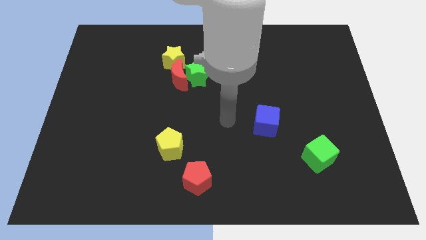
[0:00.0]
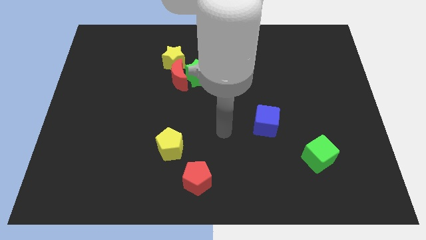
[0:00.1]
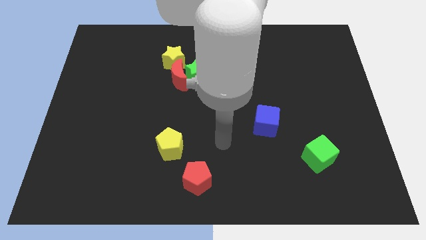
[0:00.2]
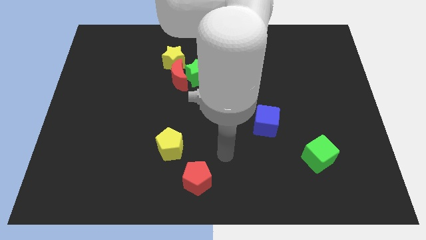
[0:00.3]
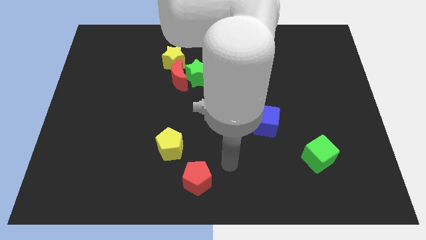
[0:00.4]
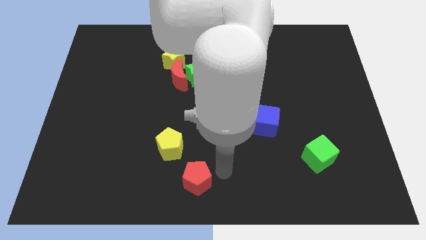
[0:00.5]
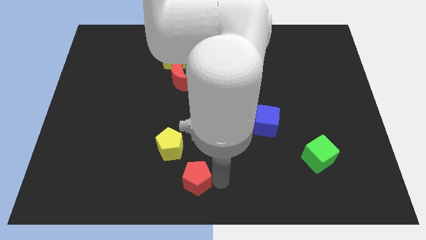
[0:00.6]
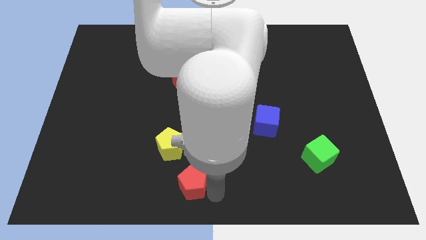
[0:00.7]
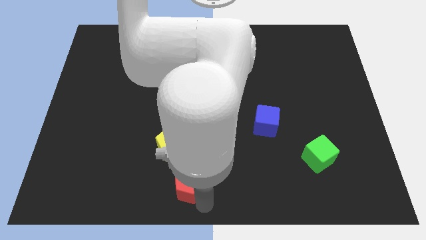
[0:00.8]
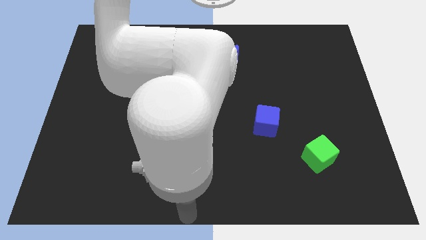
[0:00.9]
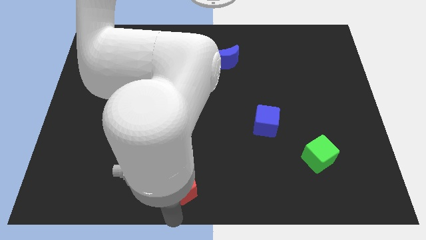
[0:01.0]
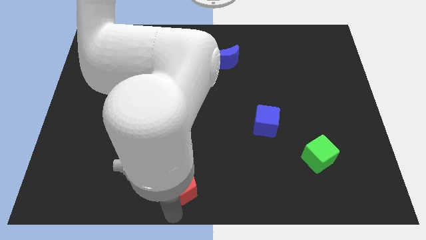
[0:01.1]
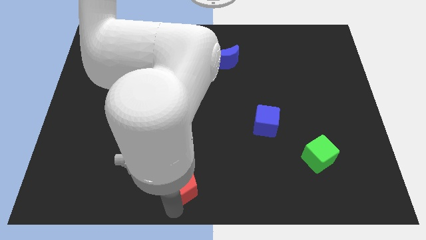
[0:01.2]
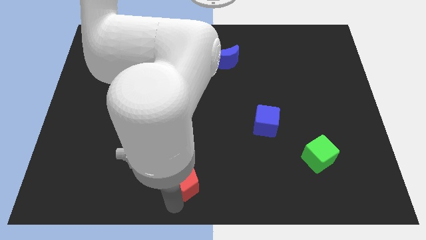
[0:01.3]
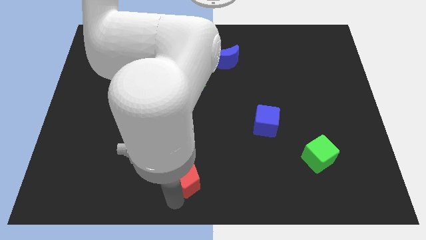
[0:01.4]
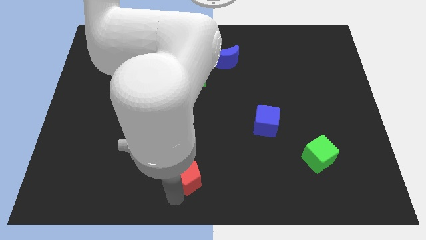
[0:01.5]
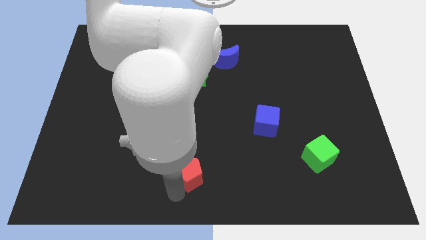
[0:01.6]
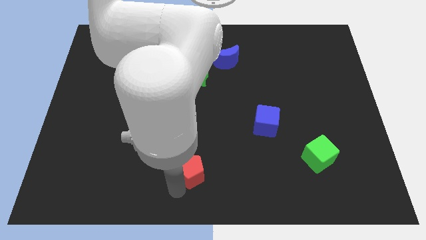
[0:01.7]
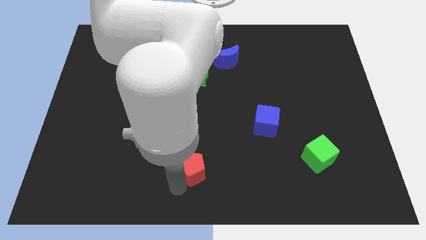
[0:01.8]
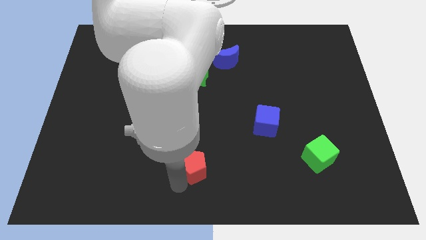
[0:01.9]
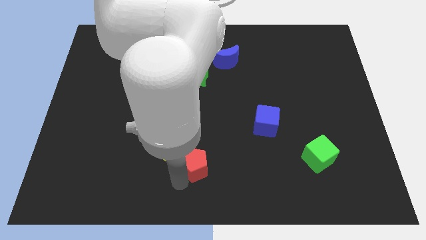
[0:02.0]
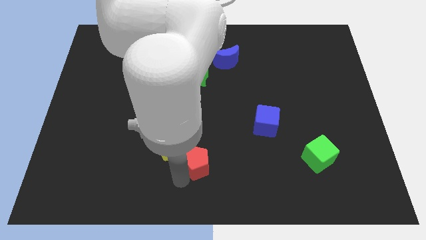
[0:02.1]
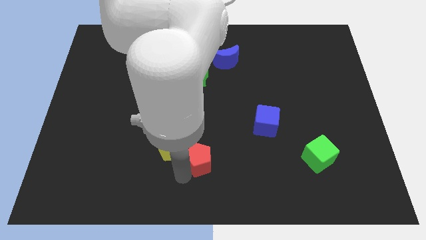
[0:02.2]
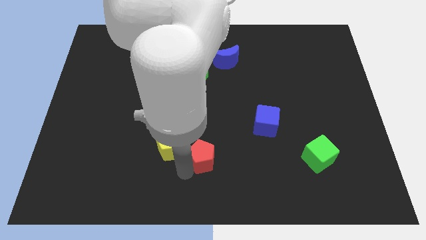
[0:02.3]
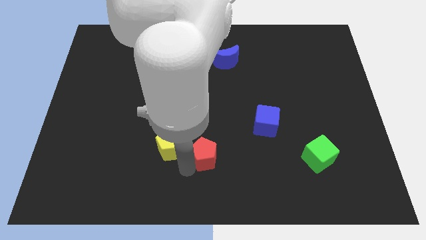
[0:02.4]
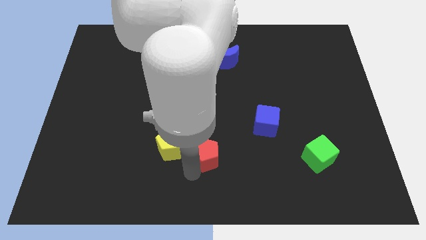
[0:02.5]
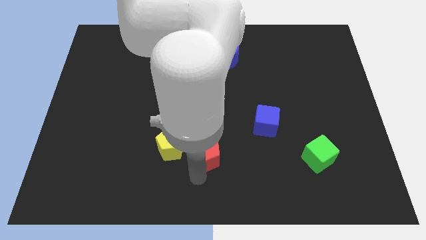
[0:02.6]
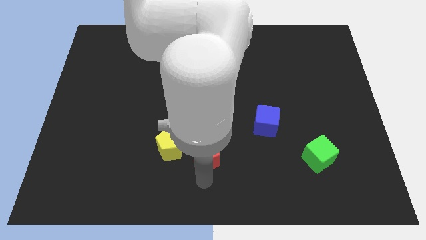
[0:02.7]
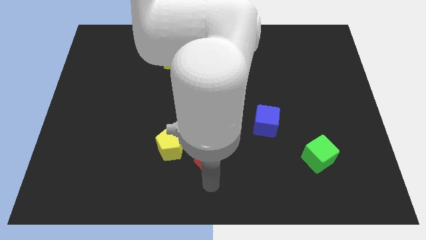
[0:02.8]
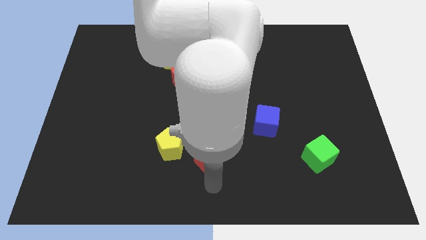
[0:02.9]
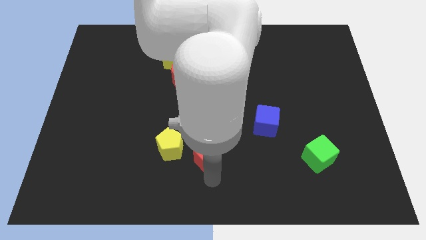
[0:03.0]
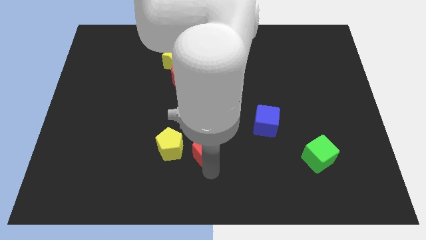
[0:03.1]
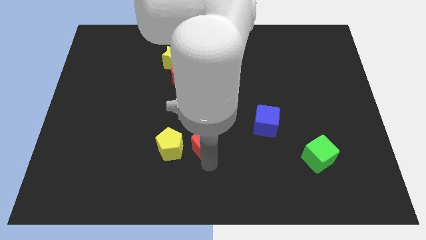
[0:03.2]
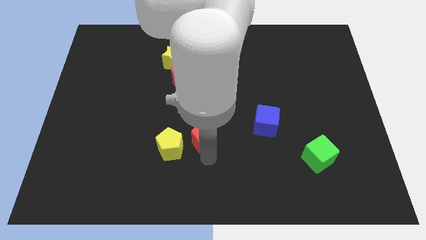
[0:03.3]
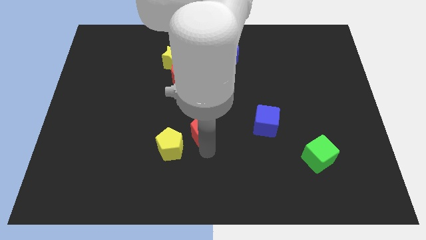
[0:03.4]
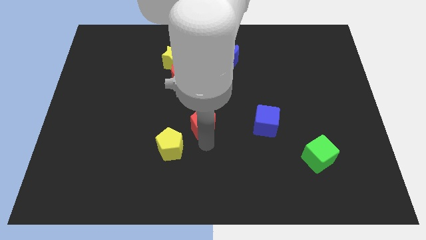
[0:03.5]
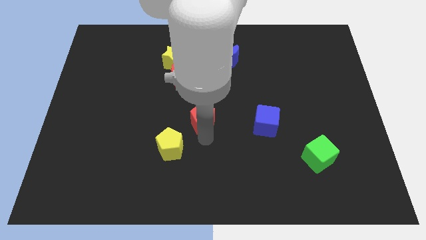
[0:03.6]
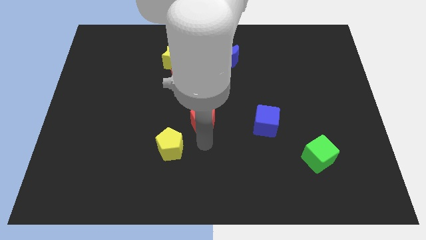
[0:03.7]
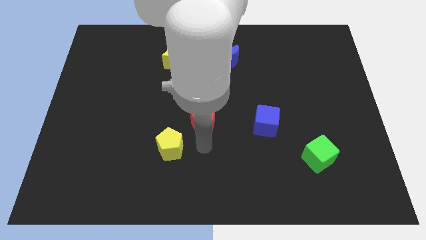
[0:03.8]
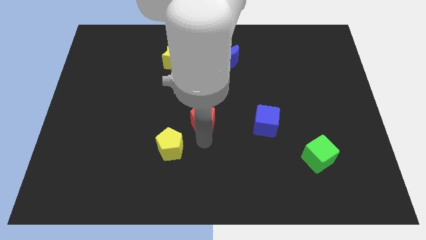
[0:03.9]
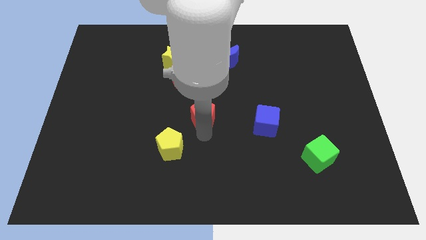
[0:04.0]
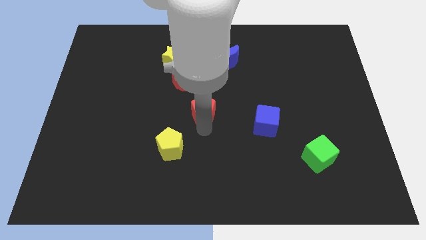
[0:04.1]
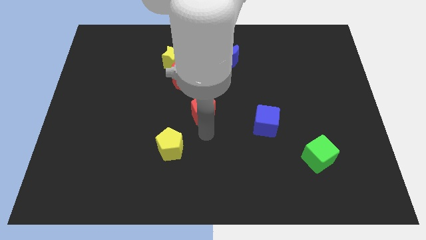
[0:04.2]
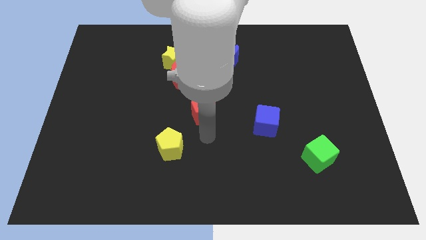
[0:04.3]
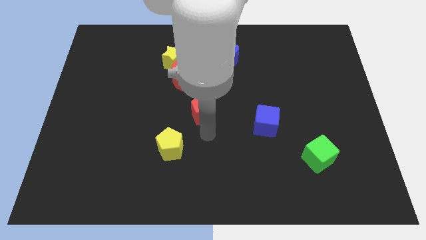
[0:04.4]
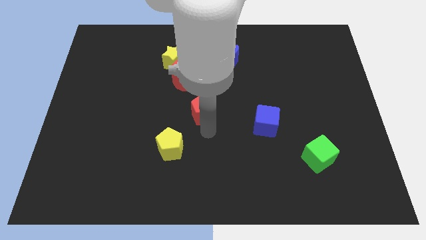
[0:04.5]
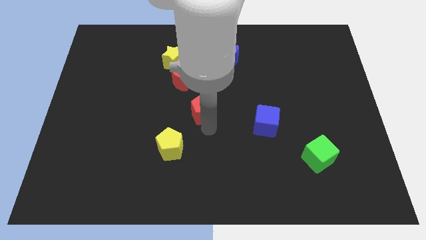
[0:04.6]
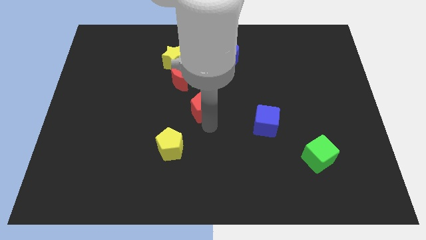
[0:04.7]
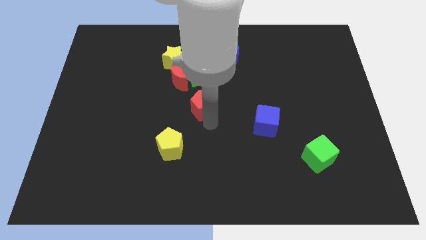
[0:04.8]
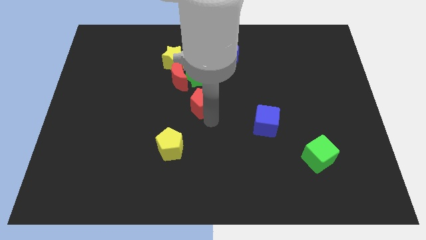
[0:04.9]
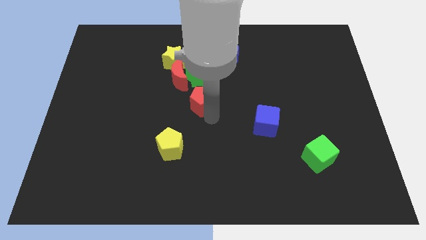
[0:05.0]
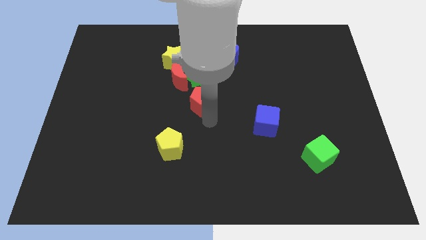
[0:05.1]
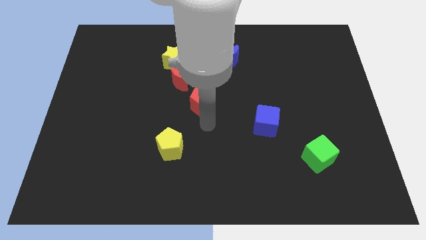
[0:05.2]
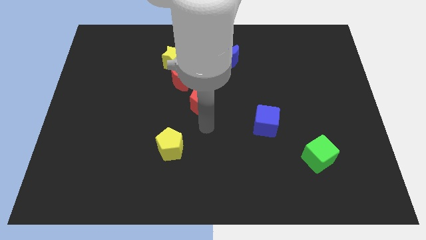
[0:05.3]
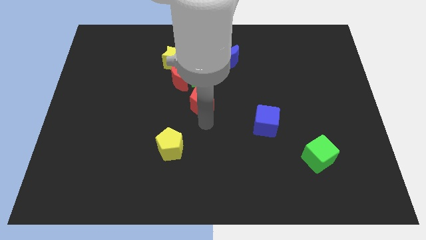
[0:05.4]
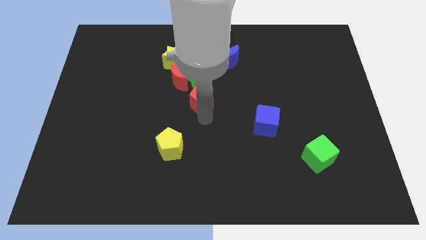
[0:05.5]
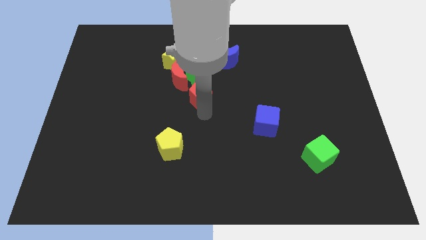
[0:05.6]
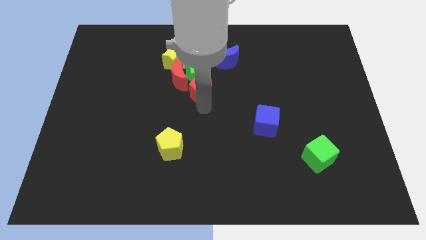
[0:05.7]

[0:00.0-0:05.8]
push the red pentagon towards the green star

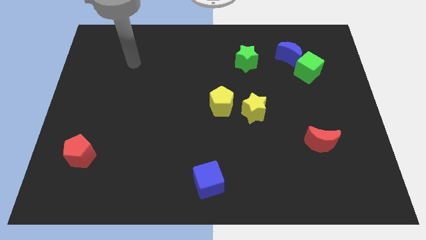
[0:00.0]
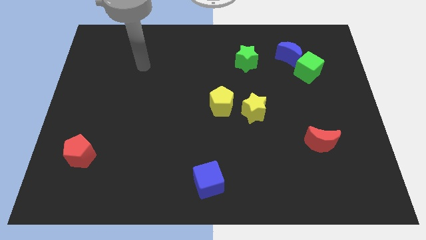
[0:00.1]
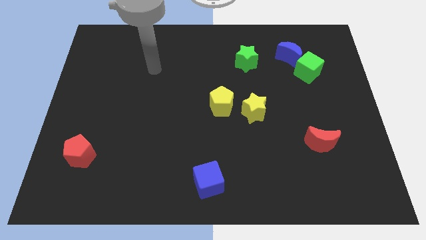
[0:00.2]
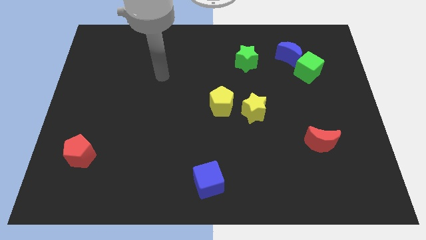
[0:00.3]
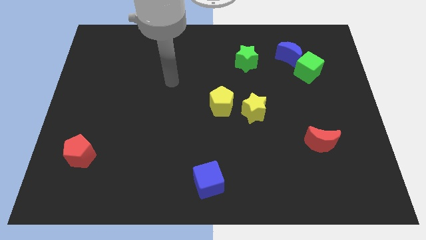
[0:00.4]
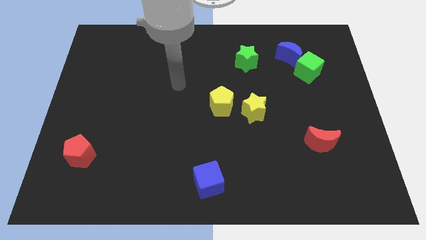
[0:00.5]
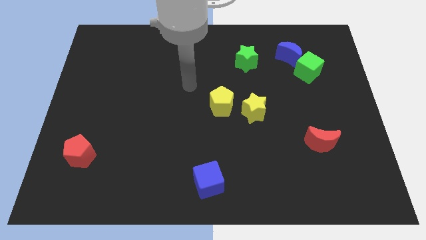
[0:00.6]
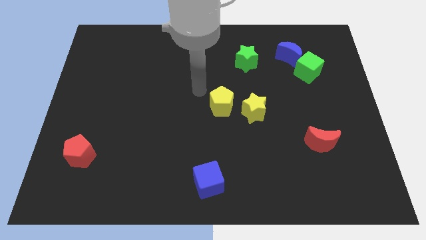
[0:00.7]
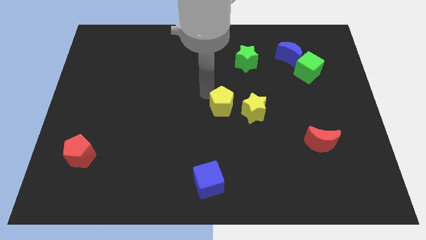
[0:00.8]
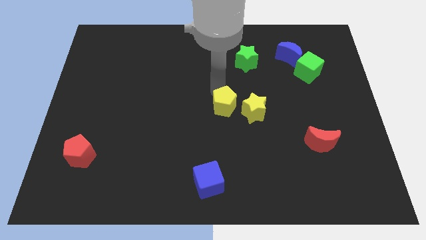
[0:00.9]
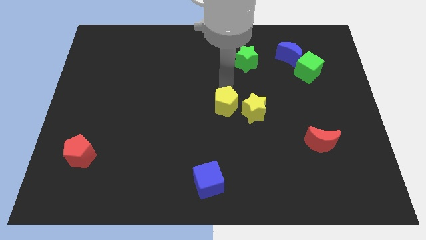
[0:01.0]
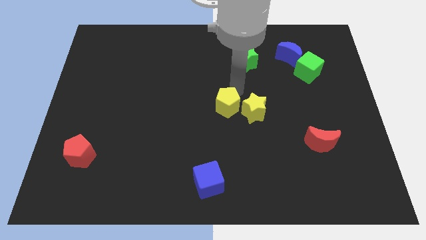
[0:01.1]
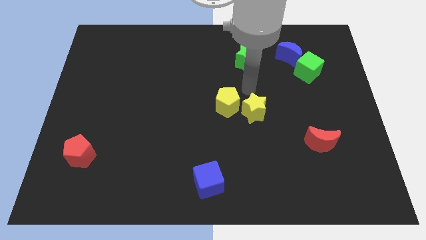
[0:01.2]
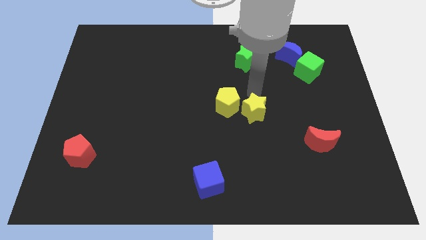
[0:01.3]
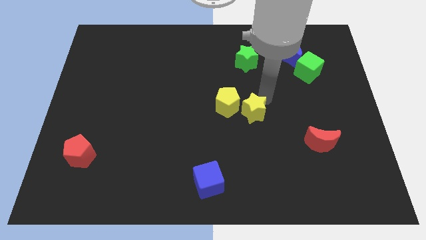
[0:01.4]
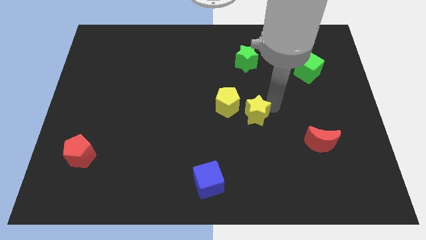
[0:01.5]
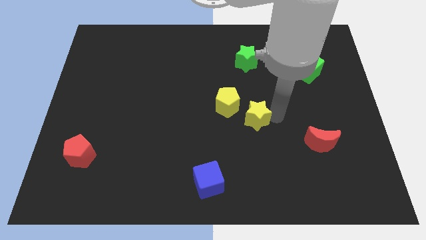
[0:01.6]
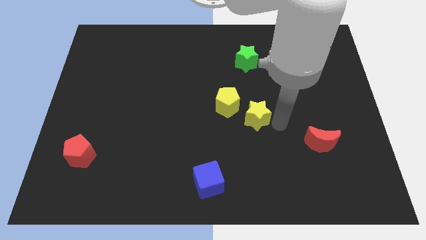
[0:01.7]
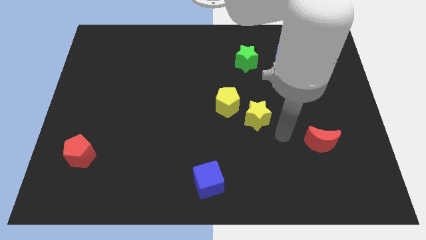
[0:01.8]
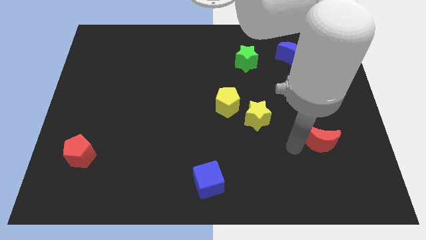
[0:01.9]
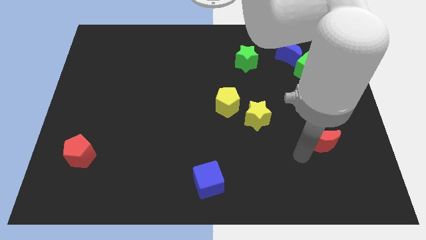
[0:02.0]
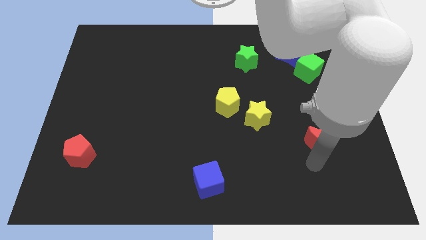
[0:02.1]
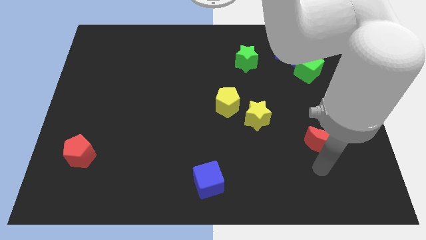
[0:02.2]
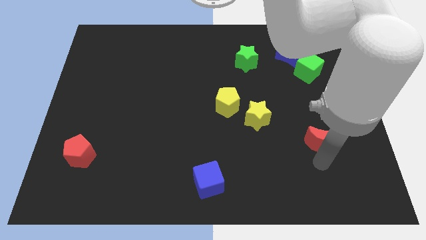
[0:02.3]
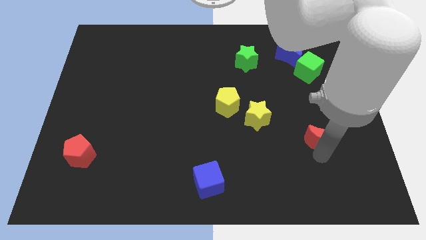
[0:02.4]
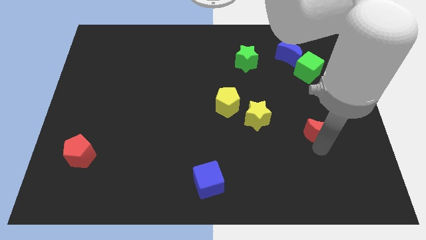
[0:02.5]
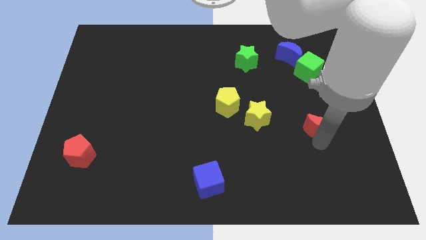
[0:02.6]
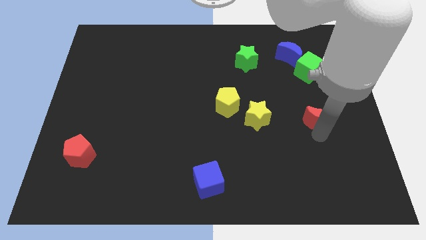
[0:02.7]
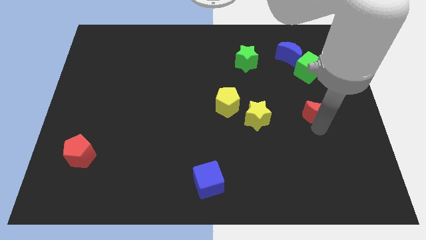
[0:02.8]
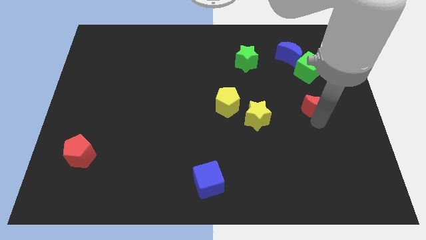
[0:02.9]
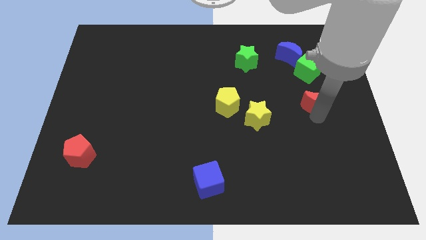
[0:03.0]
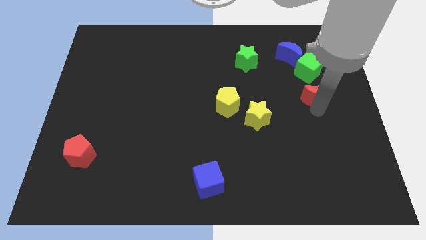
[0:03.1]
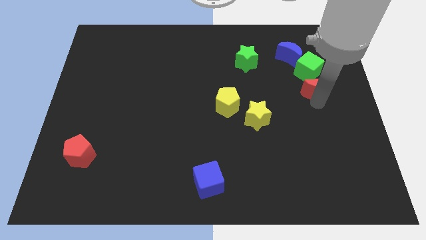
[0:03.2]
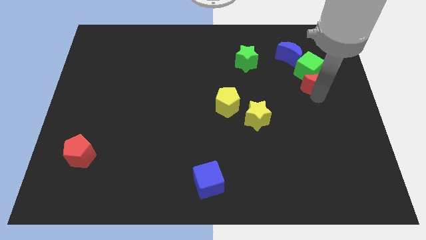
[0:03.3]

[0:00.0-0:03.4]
push the red moon close to the green cube
